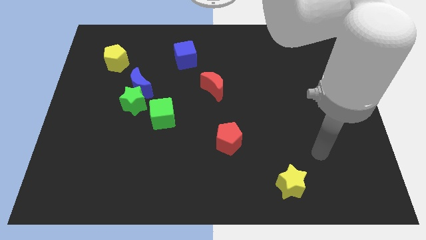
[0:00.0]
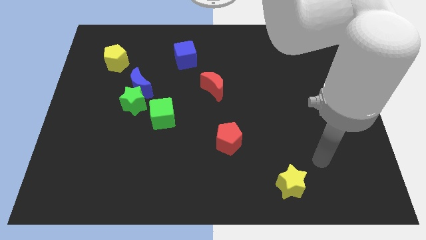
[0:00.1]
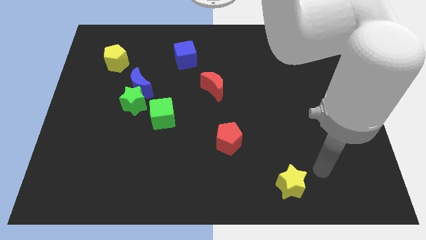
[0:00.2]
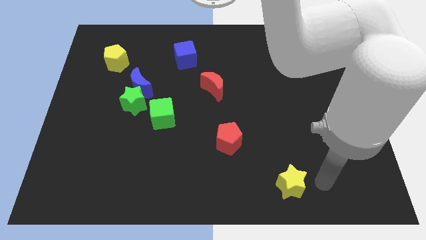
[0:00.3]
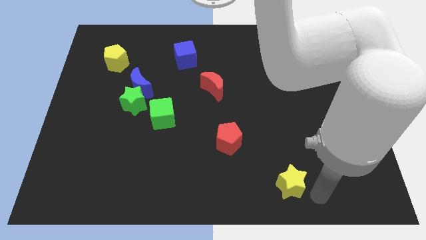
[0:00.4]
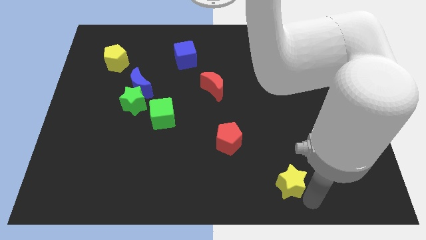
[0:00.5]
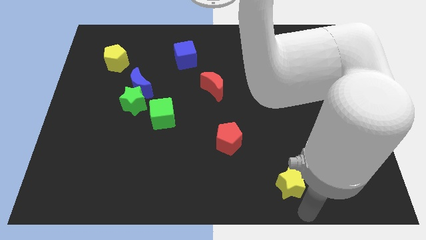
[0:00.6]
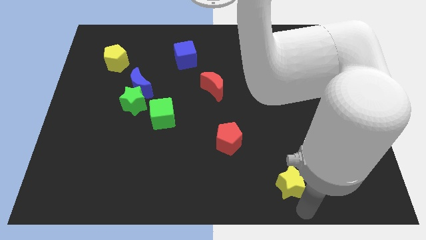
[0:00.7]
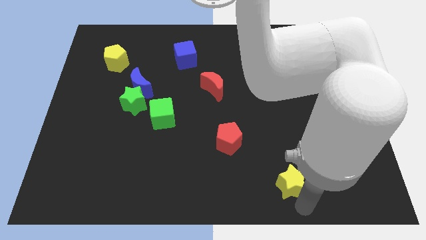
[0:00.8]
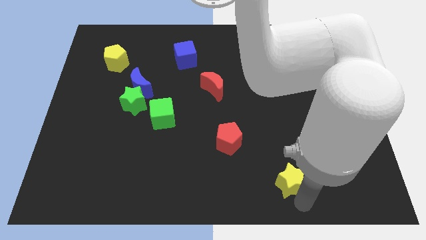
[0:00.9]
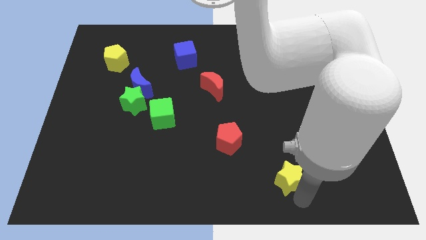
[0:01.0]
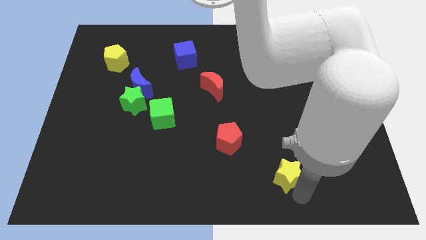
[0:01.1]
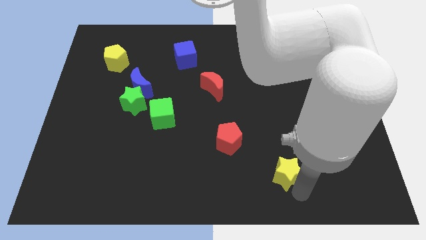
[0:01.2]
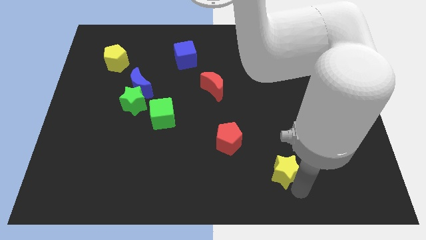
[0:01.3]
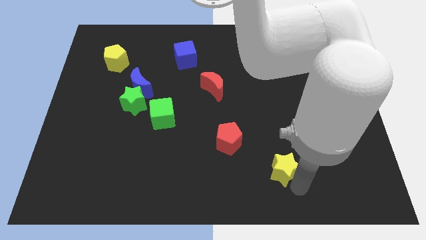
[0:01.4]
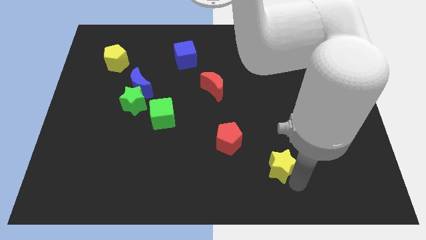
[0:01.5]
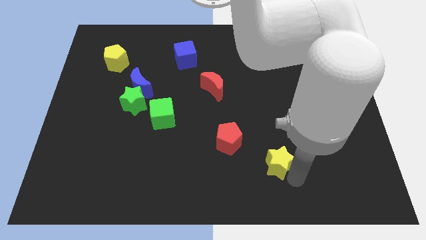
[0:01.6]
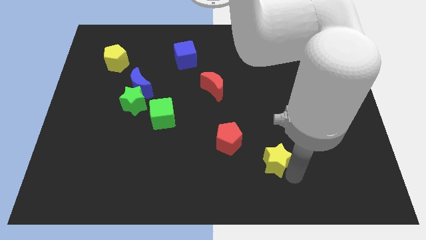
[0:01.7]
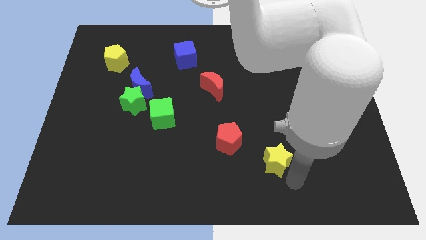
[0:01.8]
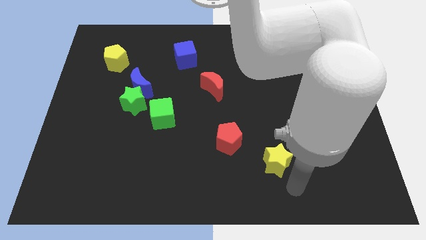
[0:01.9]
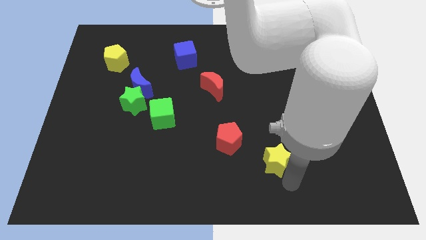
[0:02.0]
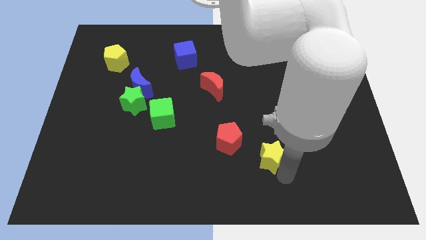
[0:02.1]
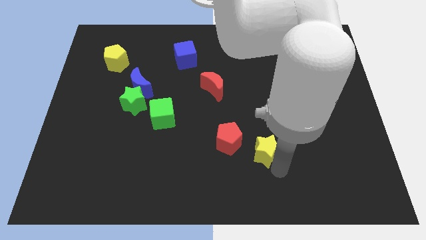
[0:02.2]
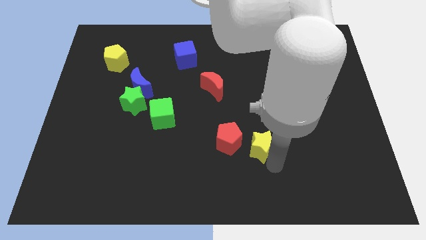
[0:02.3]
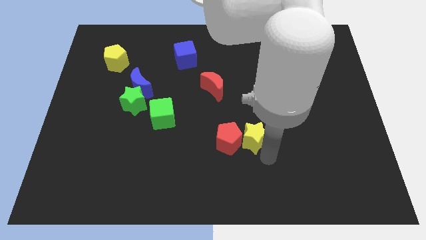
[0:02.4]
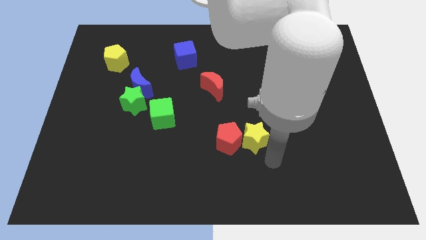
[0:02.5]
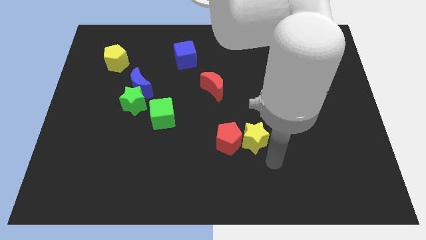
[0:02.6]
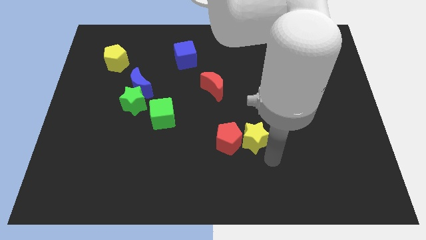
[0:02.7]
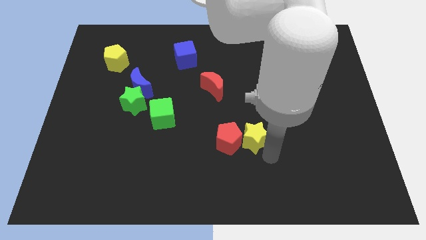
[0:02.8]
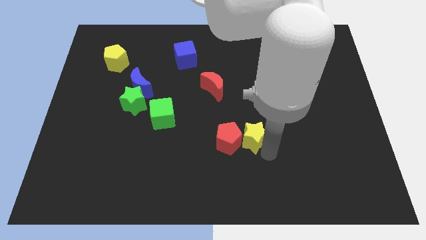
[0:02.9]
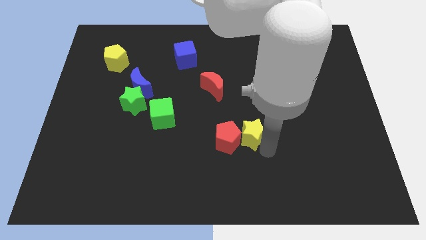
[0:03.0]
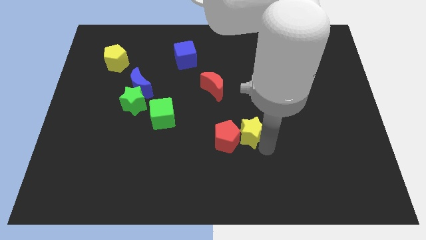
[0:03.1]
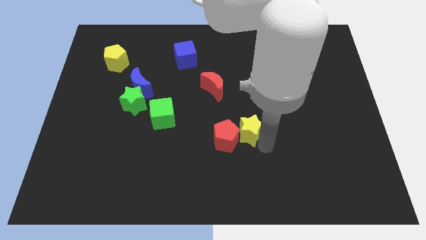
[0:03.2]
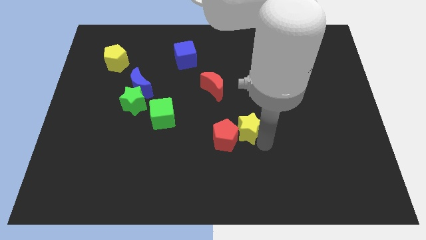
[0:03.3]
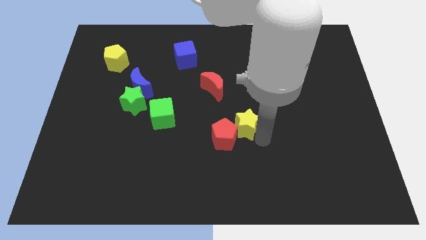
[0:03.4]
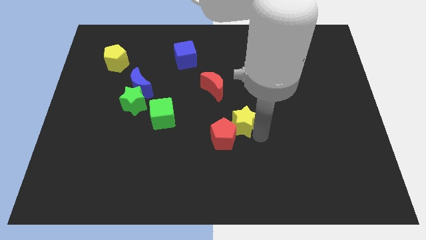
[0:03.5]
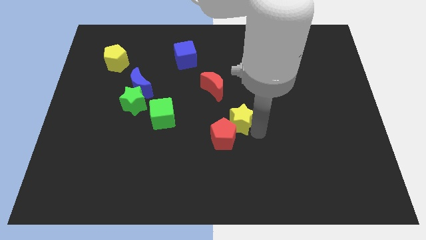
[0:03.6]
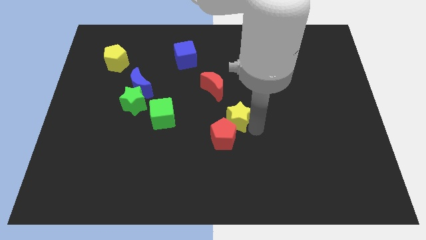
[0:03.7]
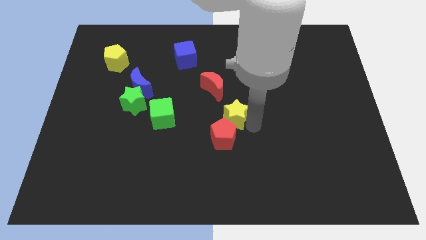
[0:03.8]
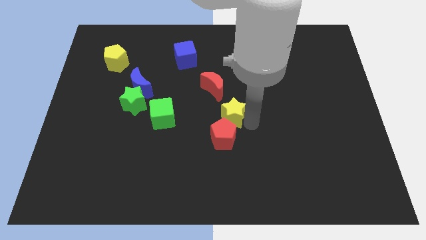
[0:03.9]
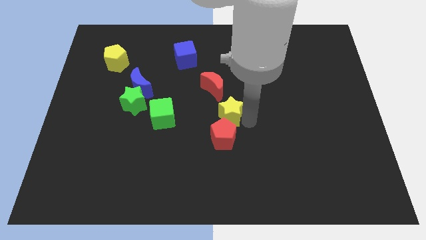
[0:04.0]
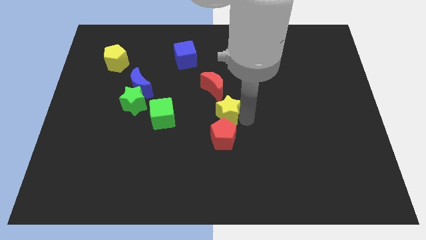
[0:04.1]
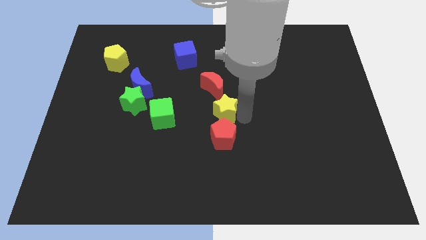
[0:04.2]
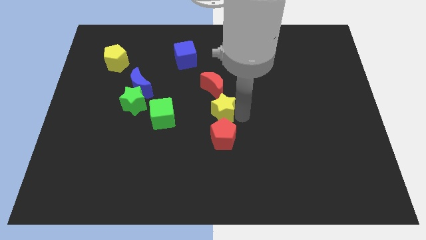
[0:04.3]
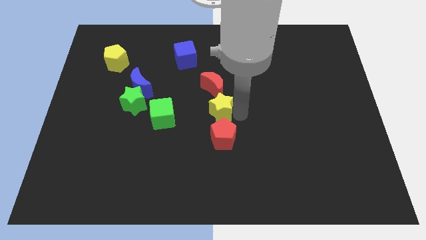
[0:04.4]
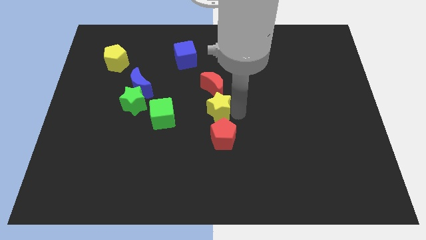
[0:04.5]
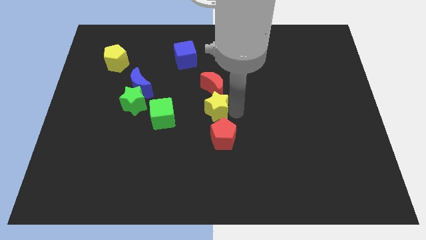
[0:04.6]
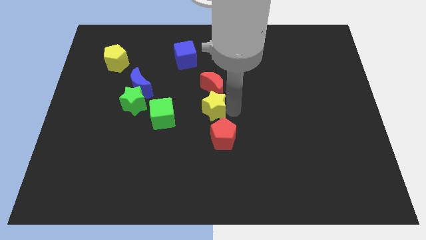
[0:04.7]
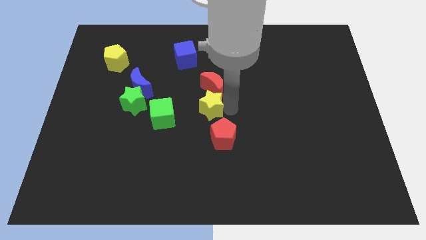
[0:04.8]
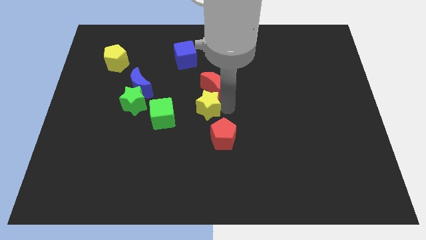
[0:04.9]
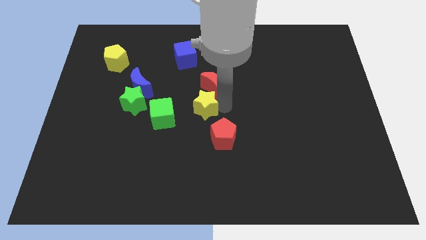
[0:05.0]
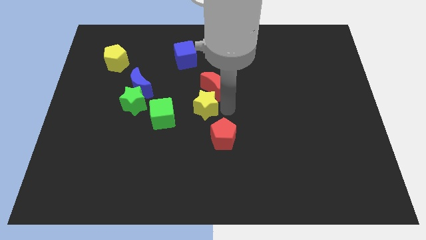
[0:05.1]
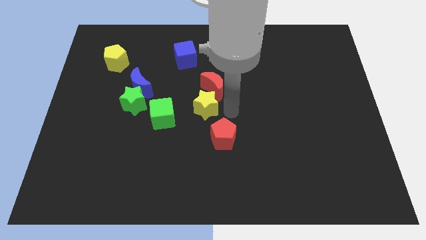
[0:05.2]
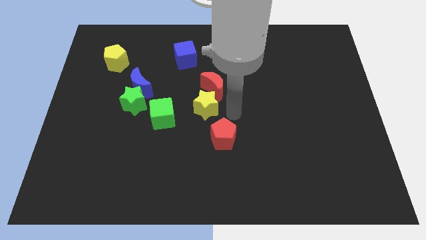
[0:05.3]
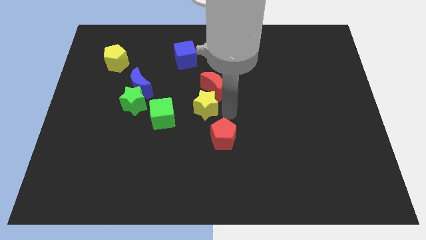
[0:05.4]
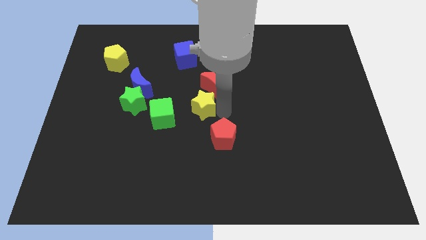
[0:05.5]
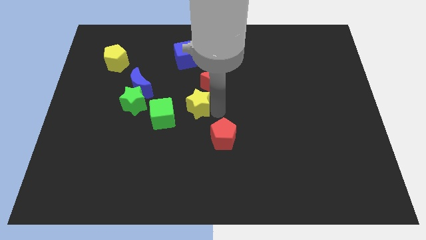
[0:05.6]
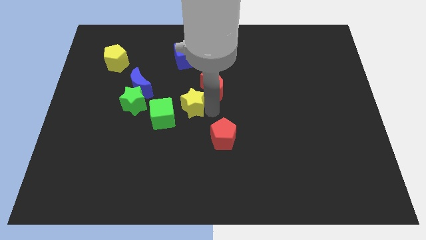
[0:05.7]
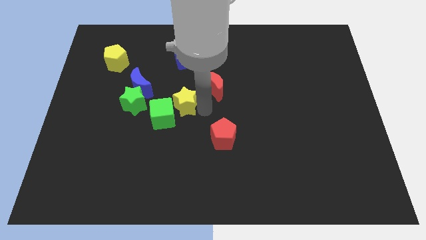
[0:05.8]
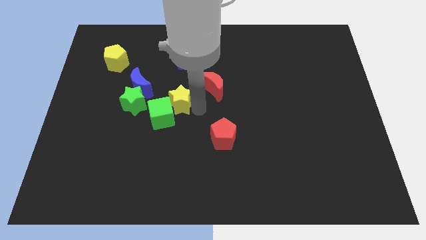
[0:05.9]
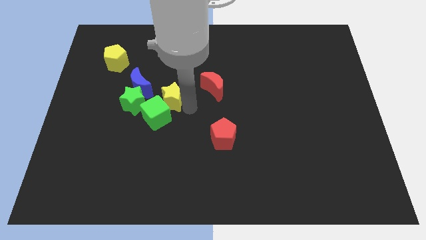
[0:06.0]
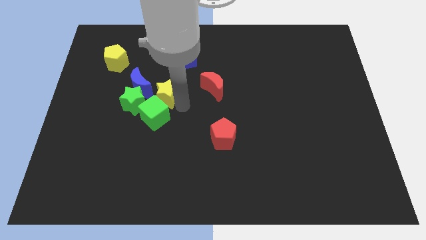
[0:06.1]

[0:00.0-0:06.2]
slide the yellow star to the top right side of the green star
